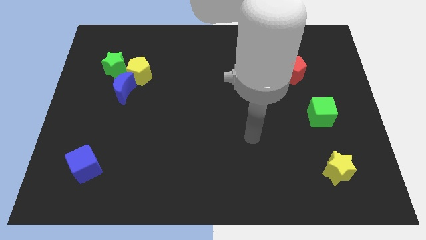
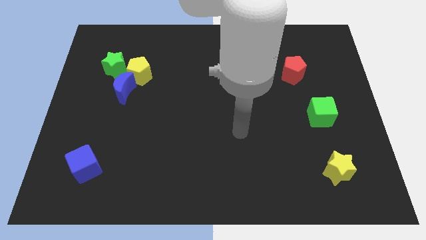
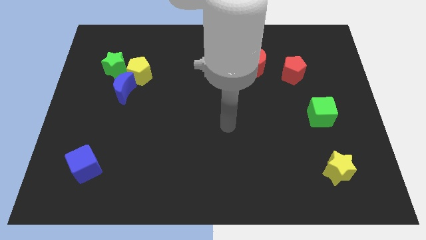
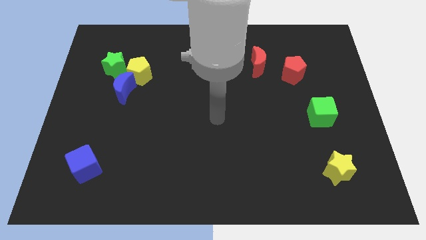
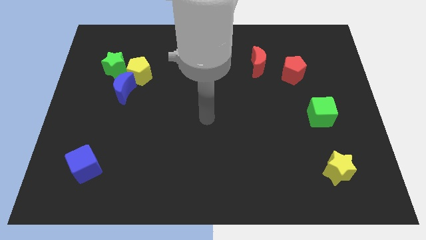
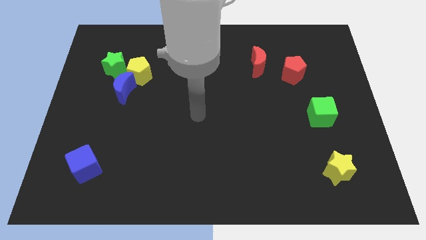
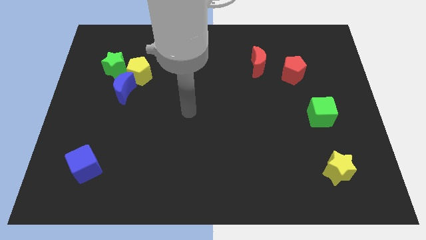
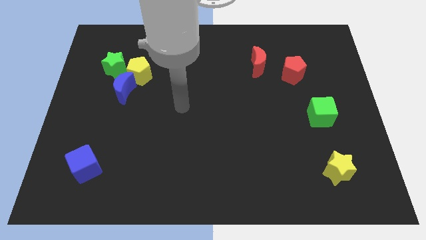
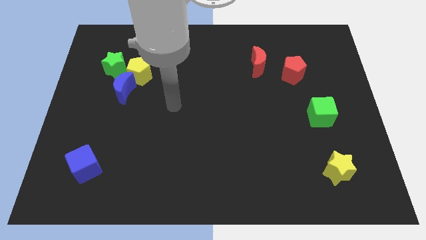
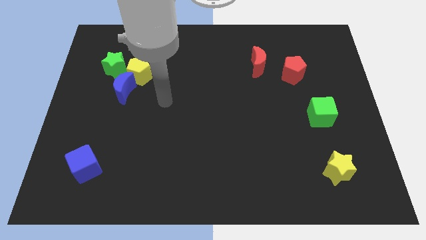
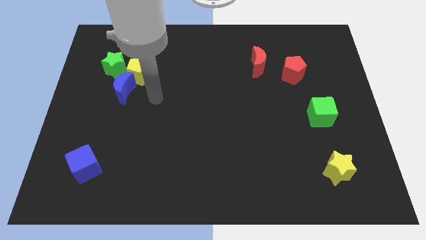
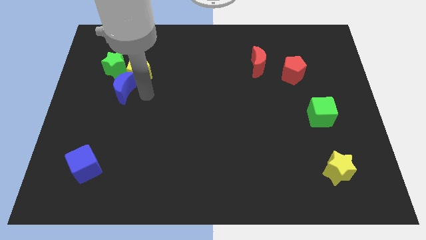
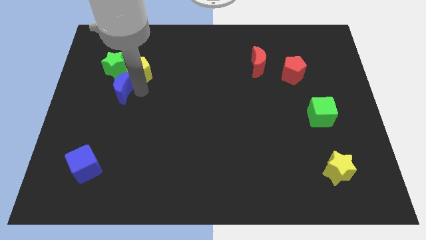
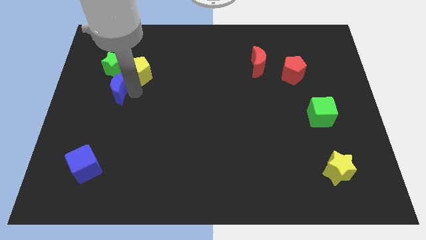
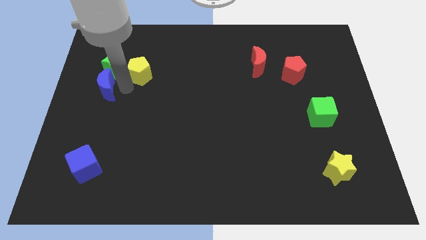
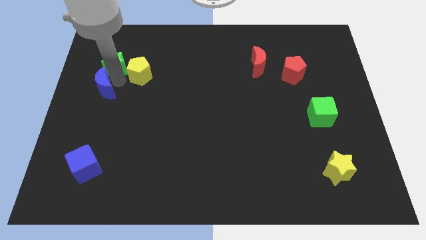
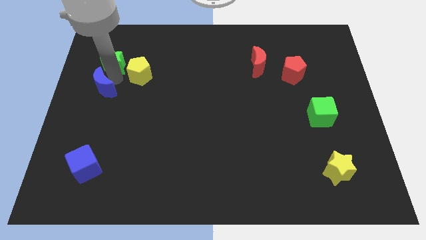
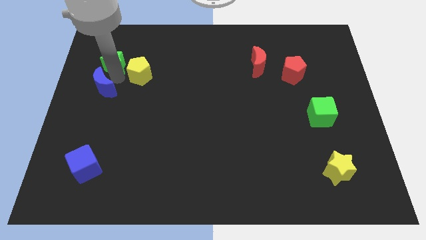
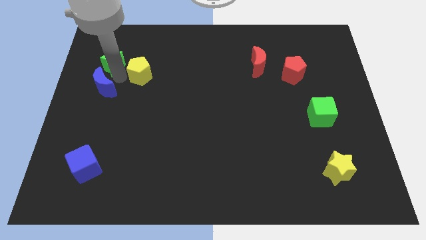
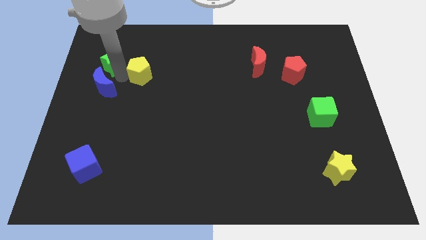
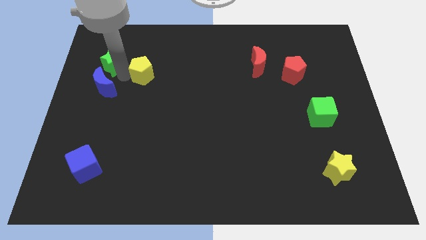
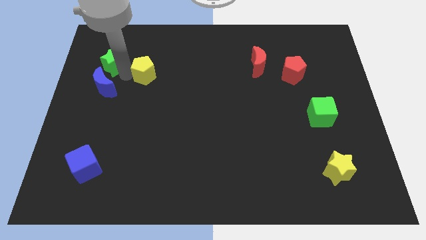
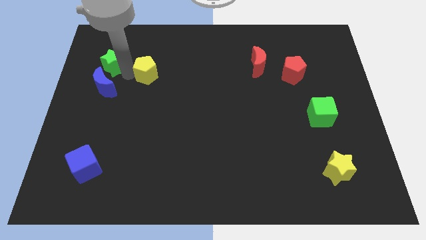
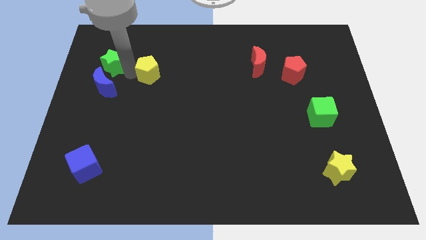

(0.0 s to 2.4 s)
move the yellow pentagon away from the blue moon and green star

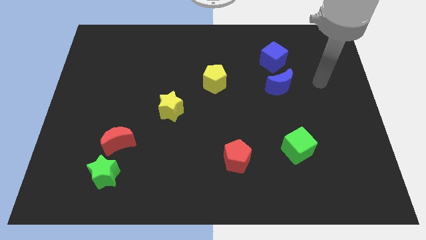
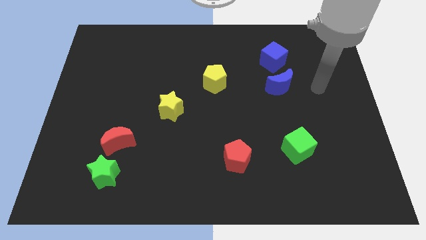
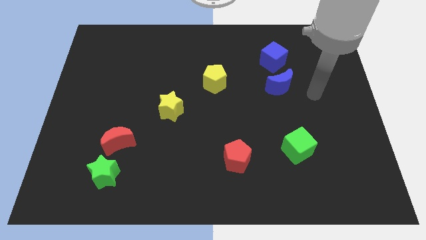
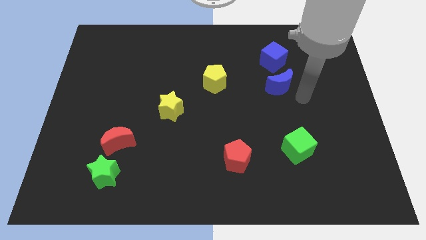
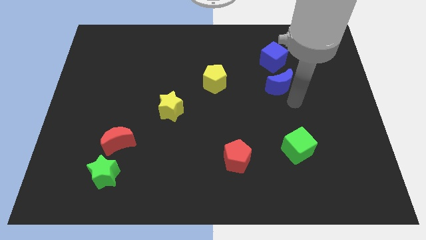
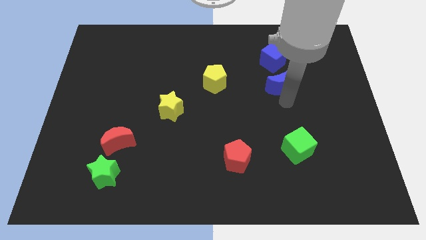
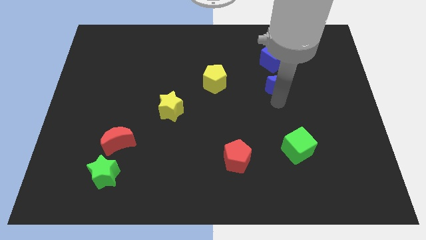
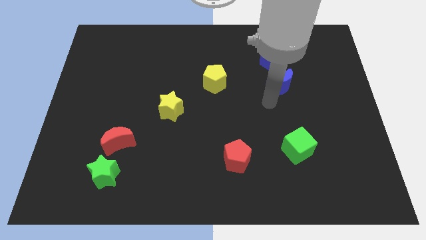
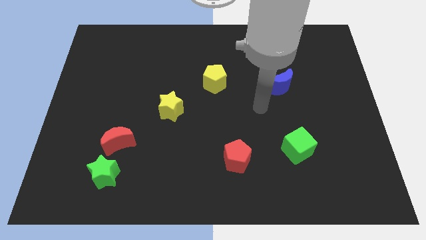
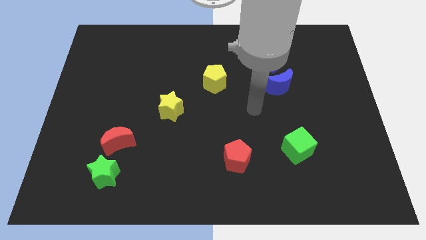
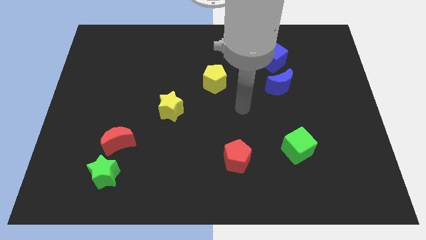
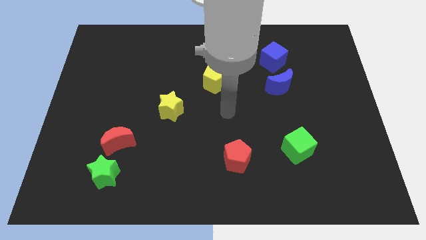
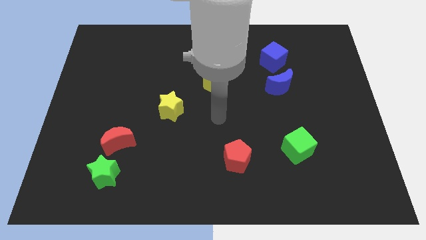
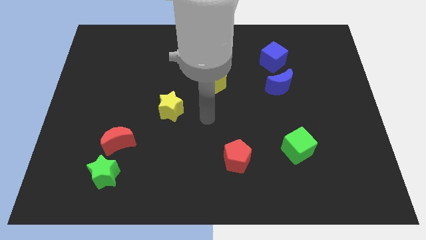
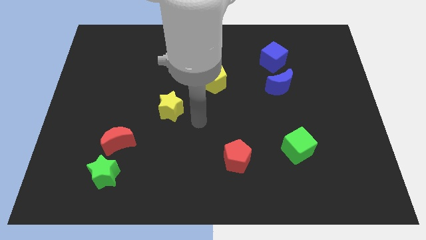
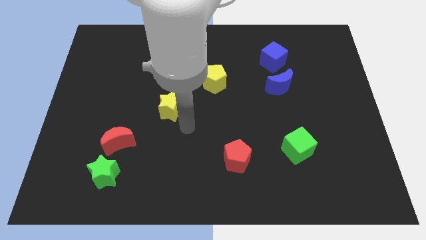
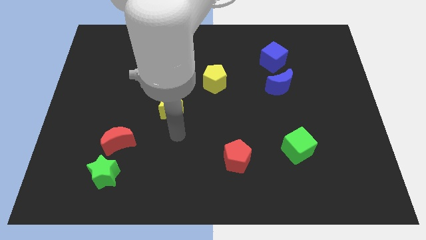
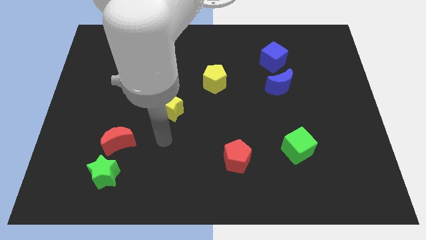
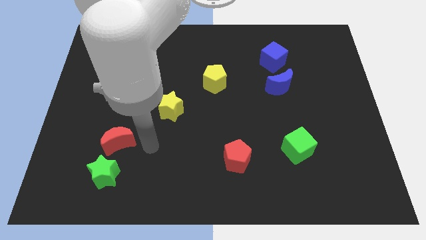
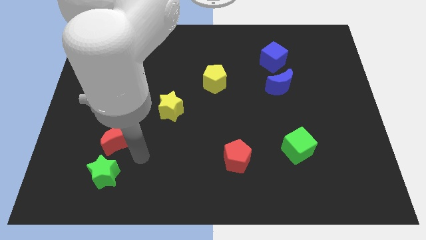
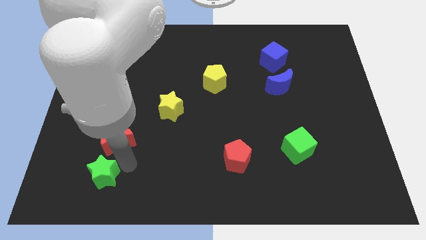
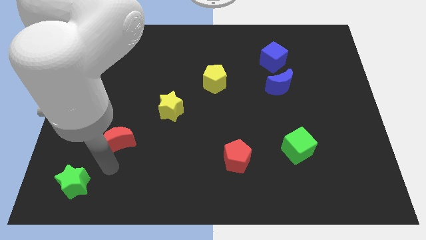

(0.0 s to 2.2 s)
move the red moon away from the green star

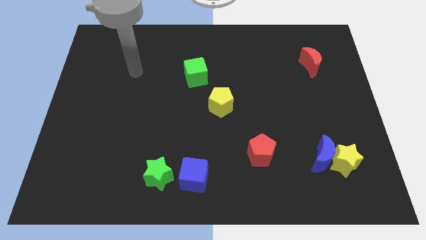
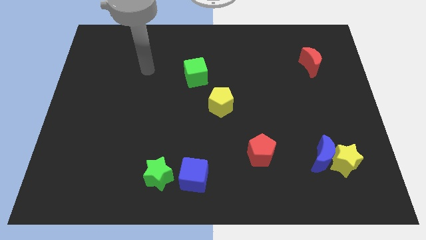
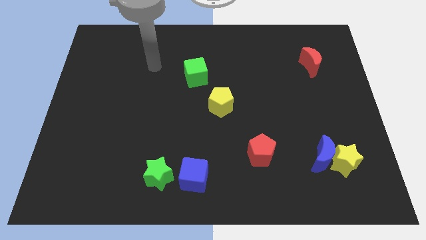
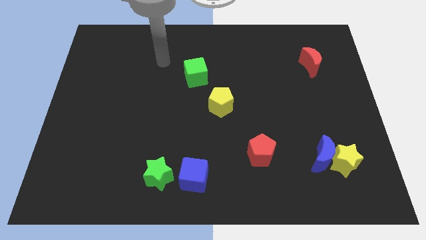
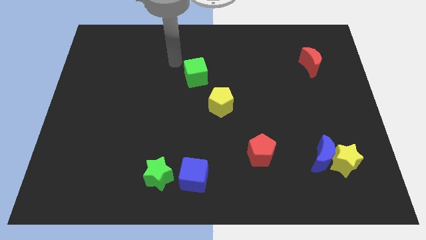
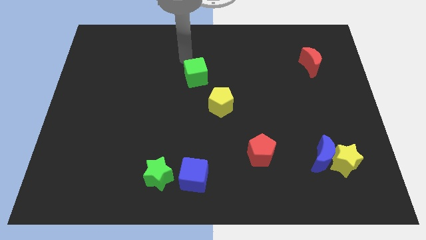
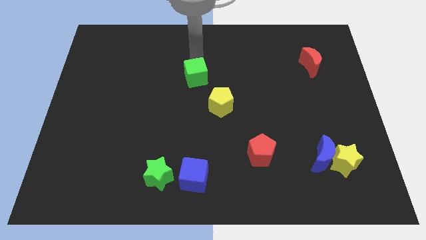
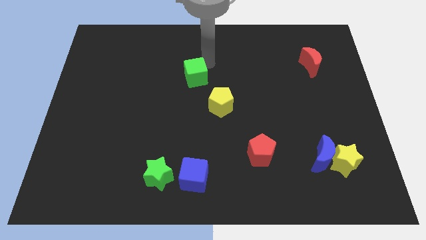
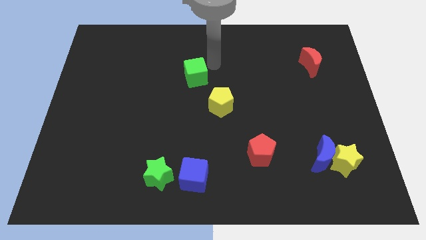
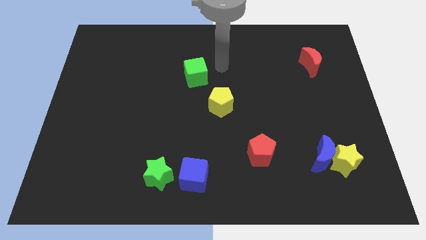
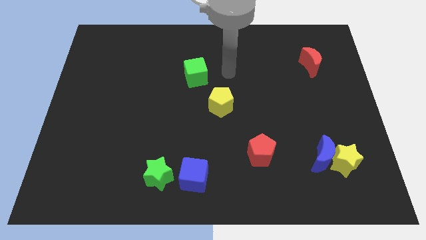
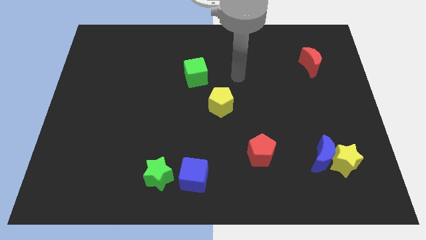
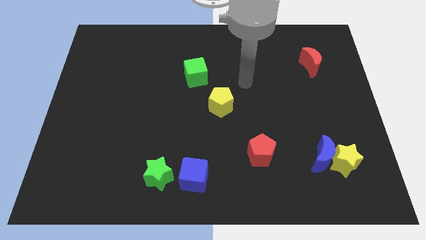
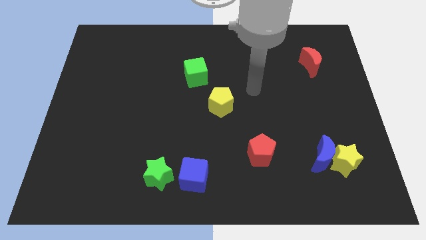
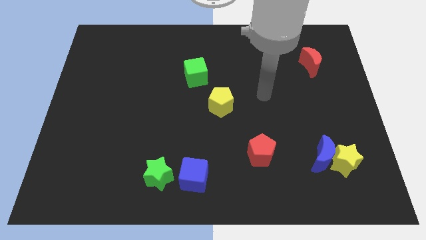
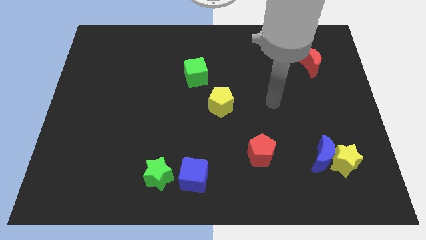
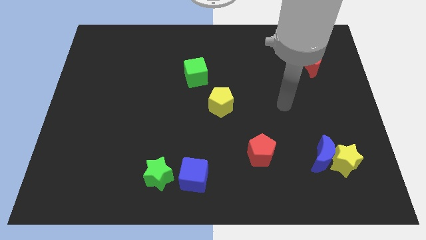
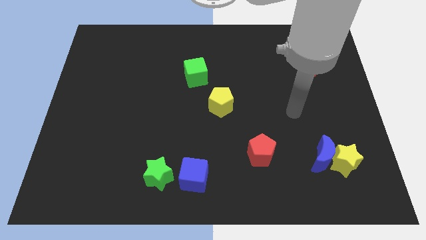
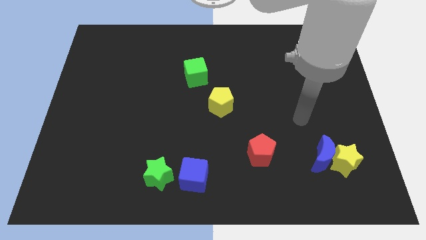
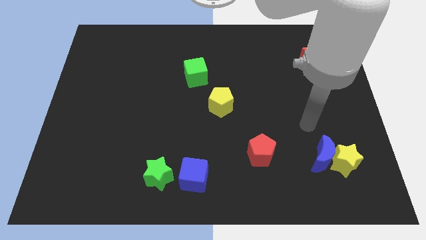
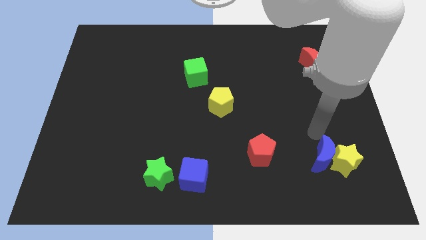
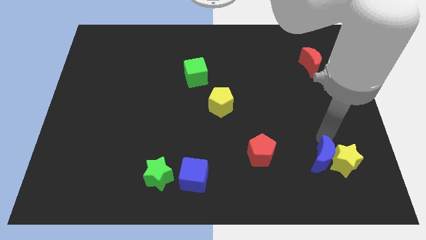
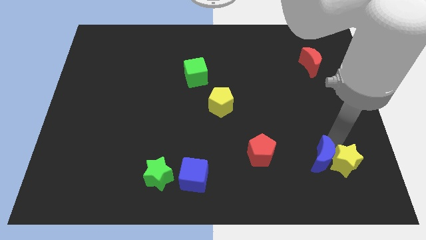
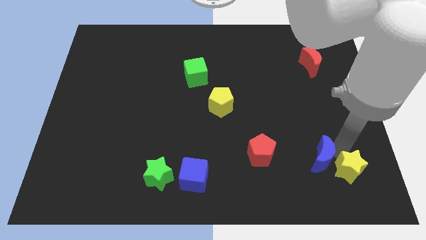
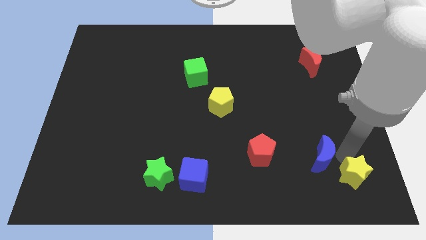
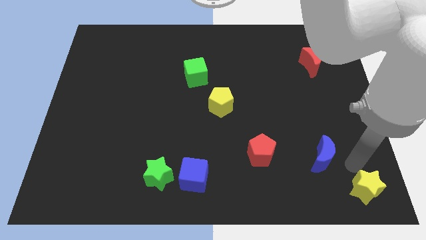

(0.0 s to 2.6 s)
move the blue moon away from the yellow star

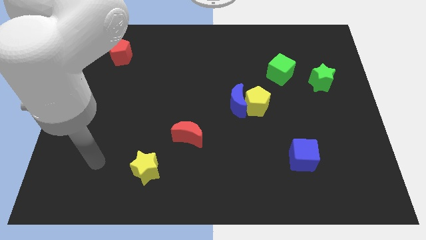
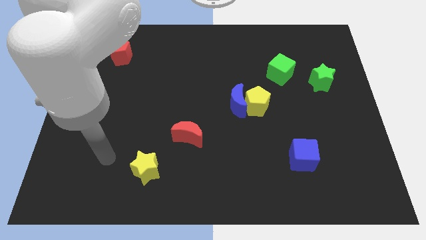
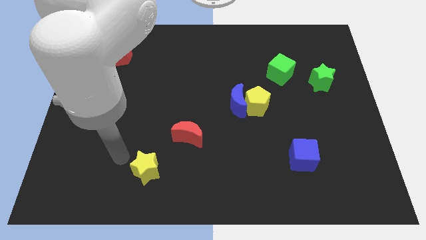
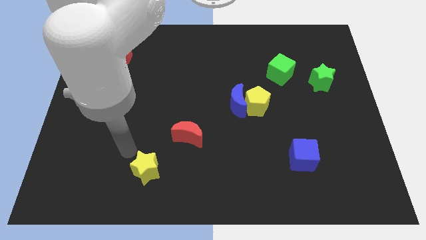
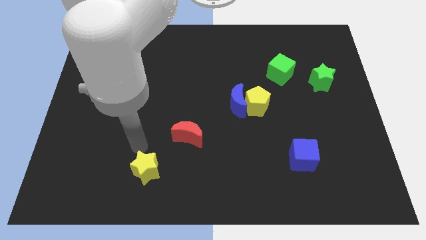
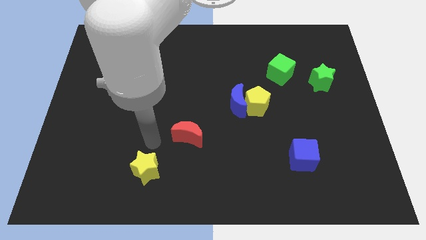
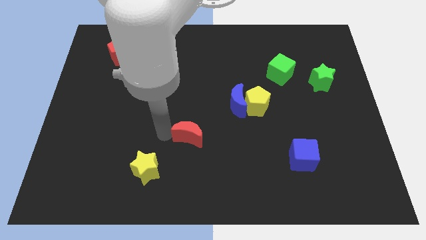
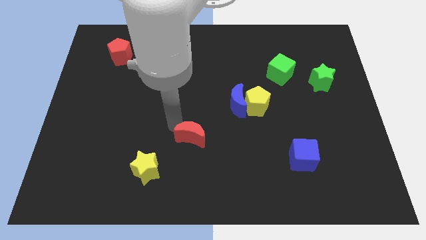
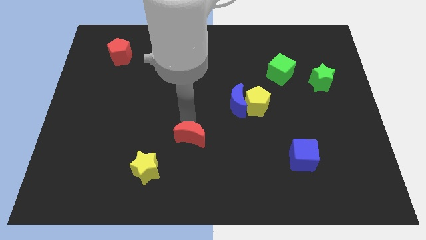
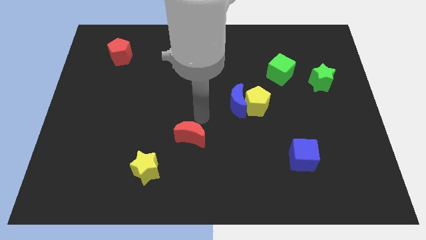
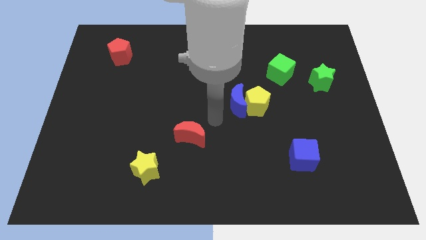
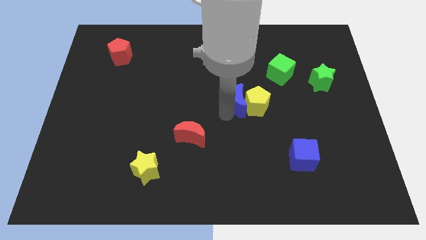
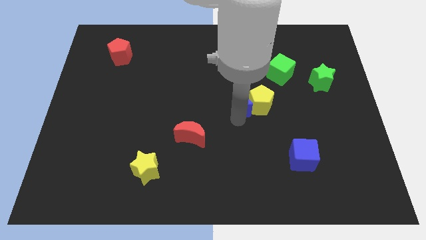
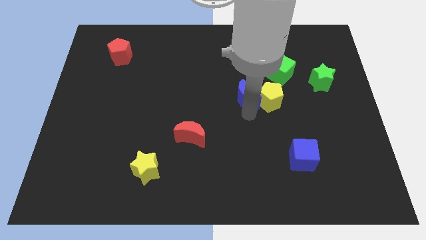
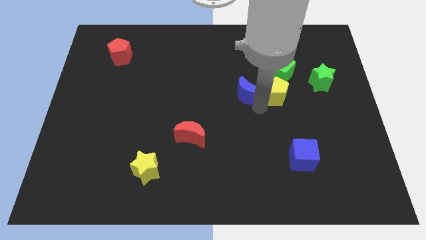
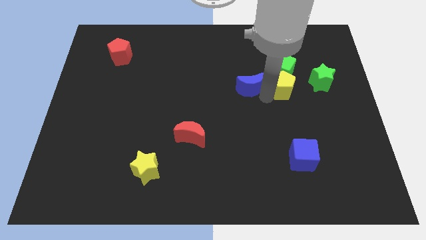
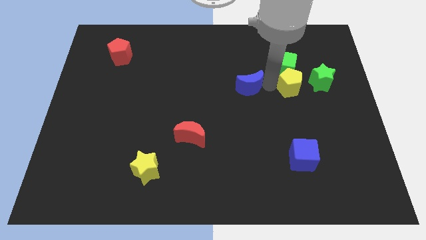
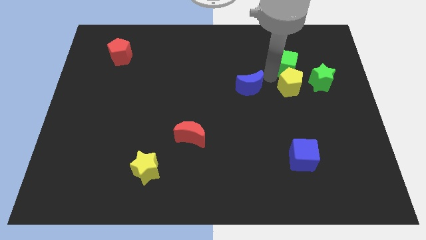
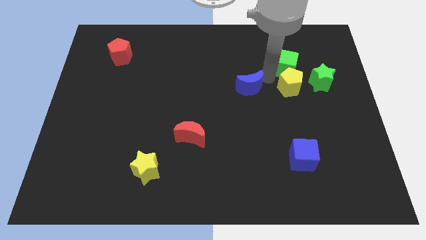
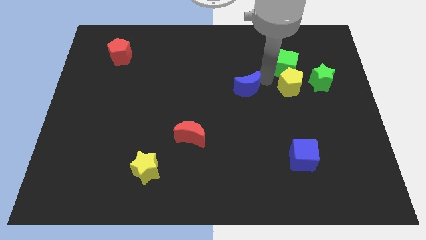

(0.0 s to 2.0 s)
move the blue moon away from the yellow pentagon

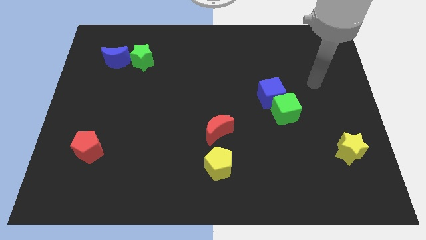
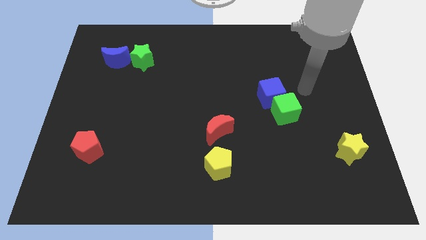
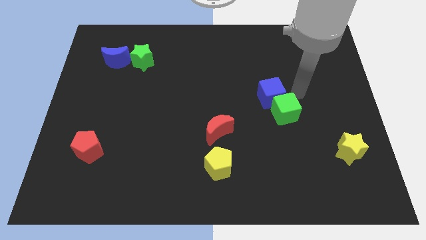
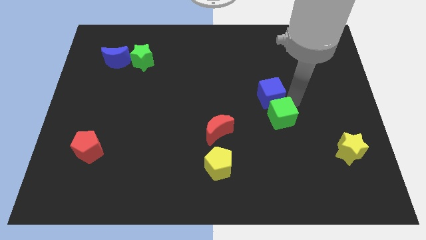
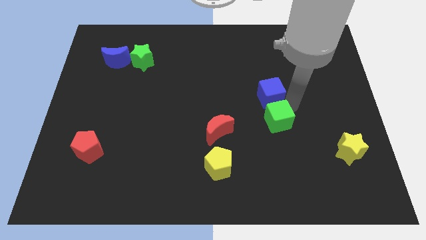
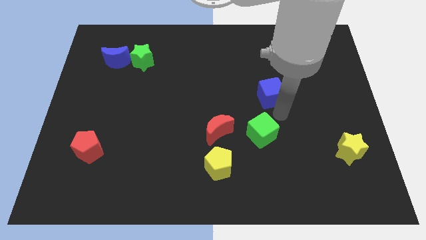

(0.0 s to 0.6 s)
pull the blue cube apart from the green cube
